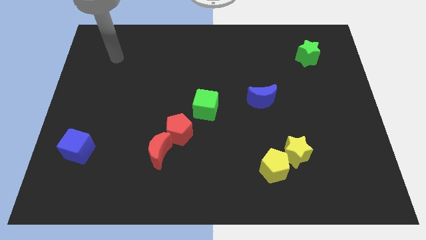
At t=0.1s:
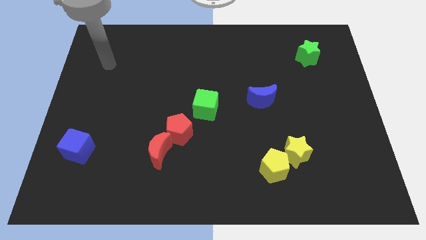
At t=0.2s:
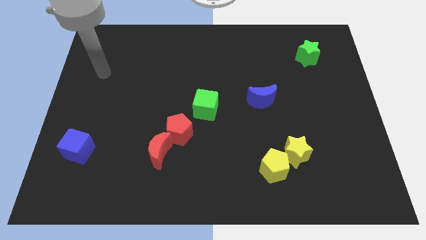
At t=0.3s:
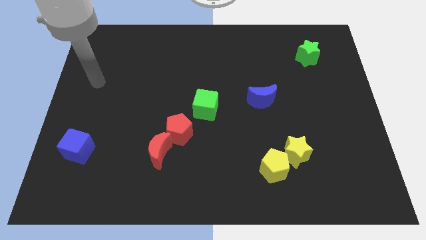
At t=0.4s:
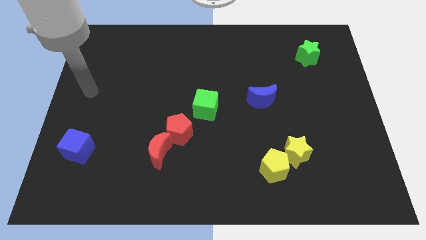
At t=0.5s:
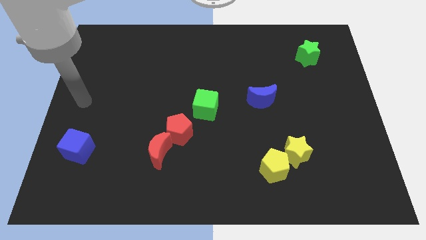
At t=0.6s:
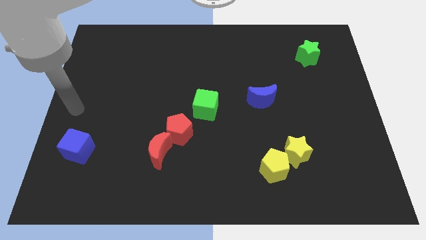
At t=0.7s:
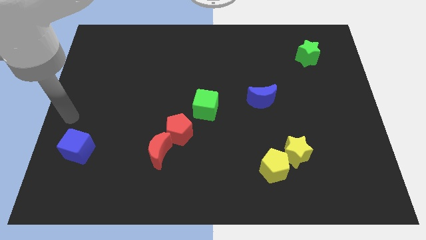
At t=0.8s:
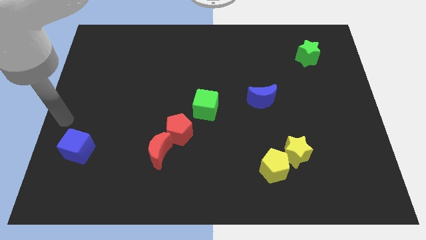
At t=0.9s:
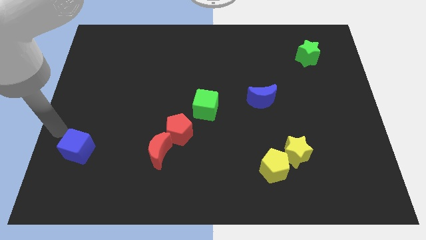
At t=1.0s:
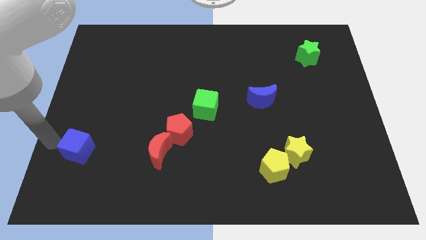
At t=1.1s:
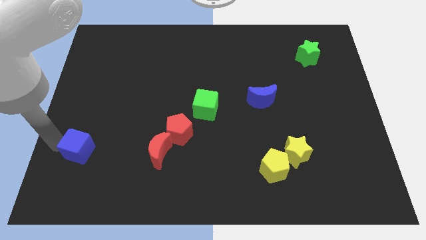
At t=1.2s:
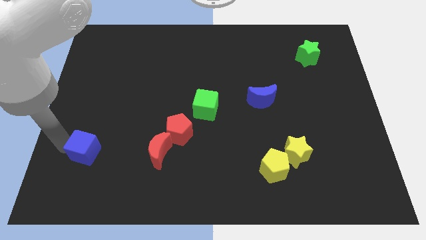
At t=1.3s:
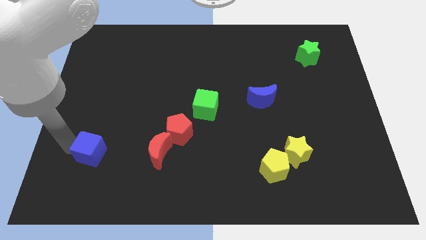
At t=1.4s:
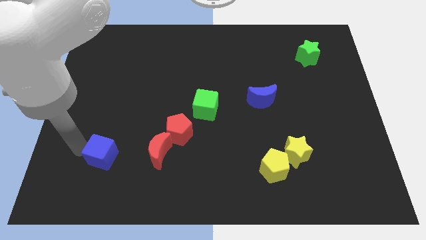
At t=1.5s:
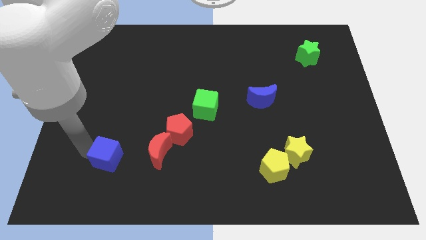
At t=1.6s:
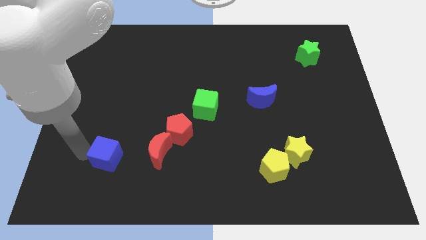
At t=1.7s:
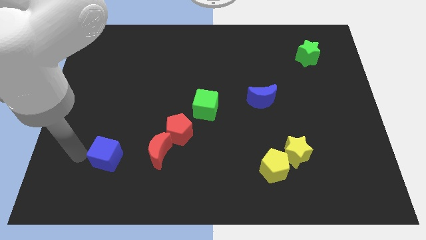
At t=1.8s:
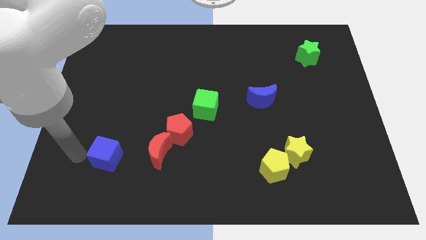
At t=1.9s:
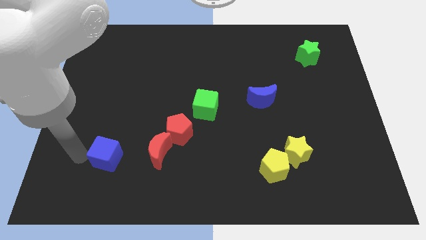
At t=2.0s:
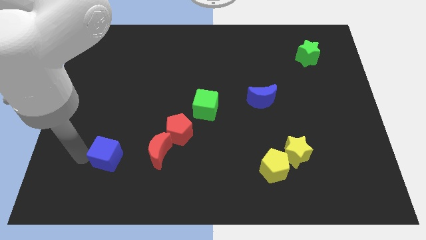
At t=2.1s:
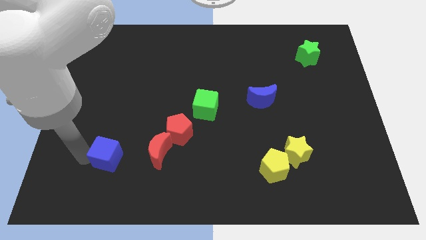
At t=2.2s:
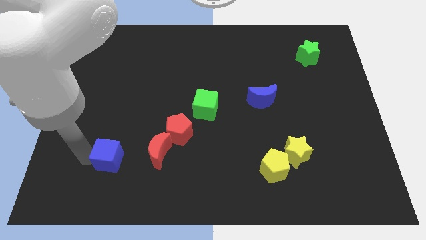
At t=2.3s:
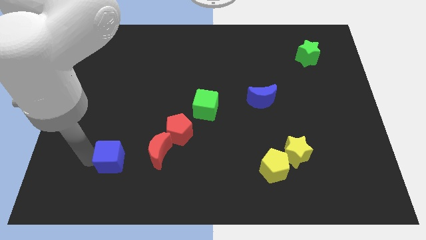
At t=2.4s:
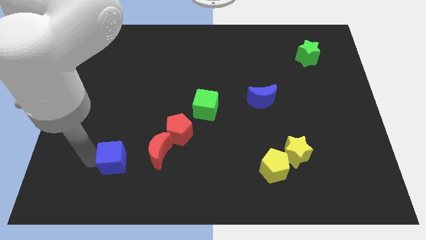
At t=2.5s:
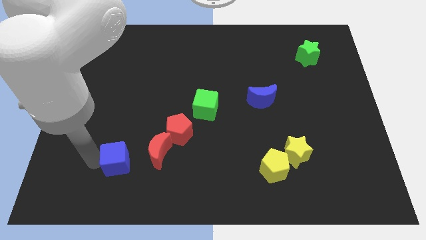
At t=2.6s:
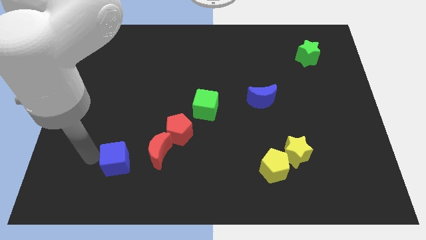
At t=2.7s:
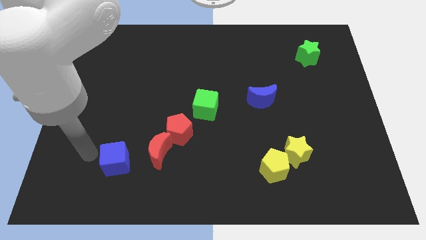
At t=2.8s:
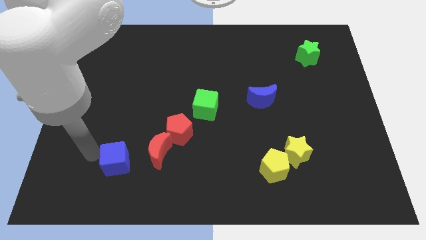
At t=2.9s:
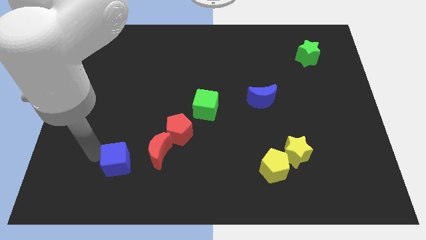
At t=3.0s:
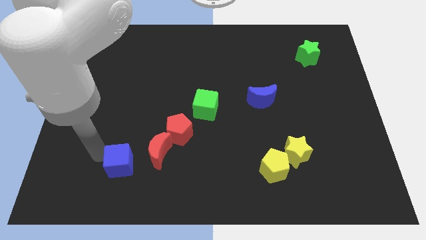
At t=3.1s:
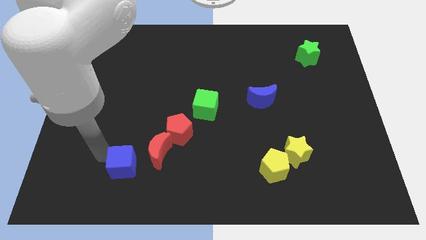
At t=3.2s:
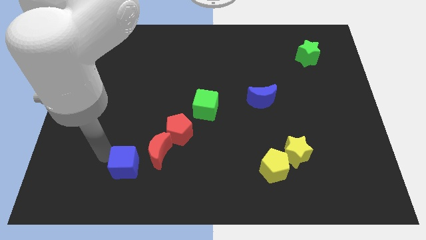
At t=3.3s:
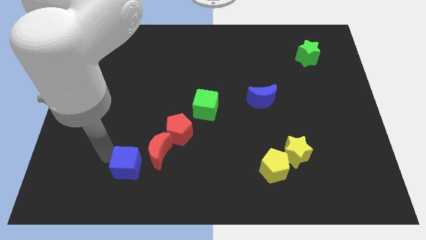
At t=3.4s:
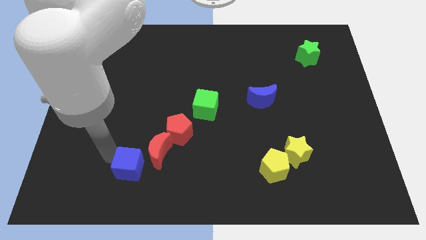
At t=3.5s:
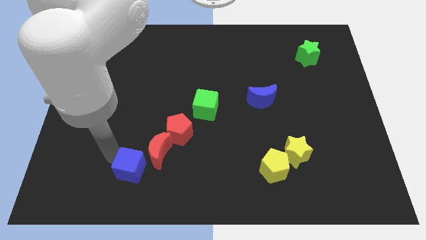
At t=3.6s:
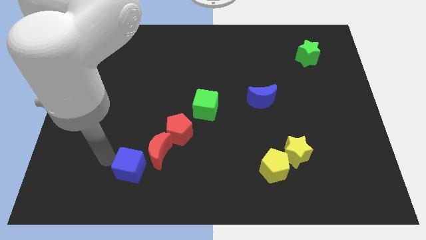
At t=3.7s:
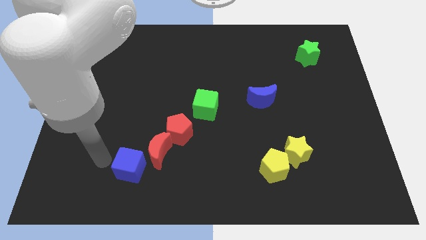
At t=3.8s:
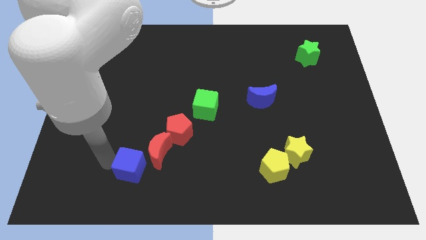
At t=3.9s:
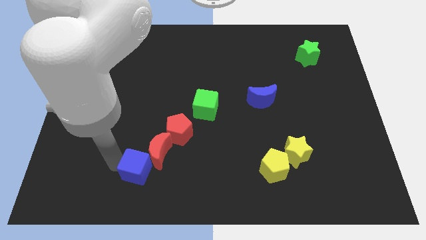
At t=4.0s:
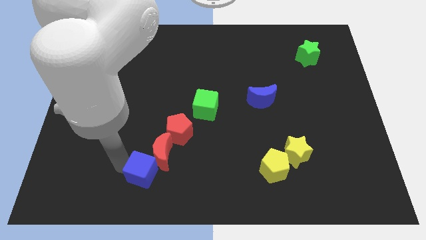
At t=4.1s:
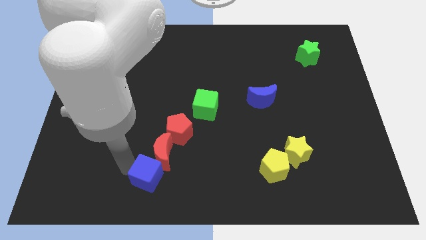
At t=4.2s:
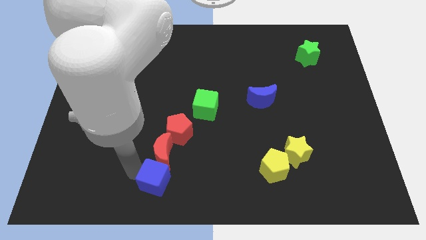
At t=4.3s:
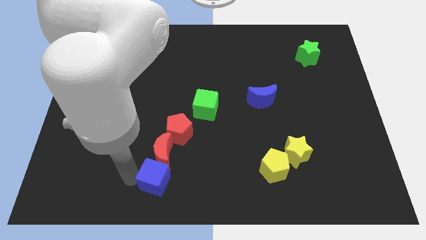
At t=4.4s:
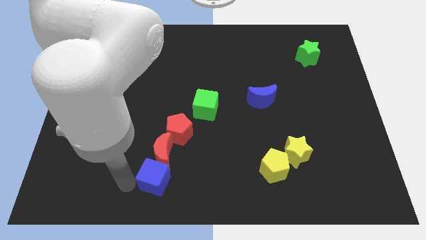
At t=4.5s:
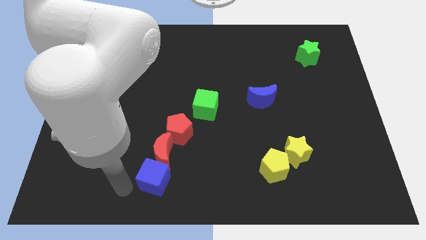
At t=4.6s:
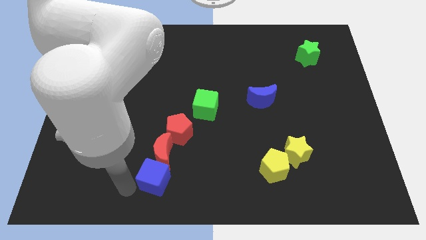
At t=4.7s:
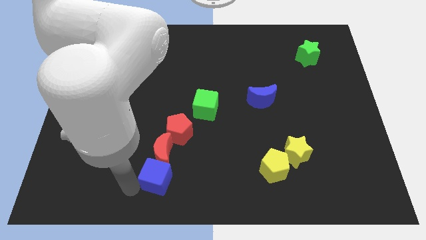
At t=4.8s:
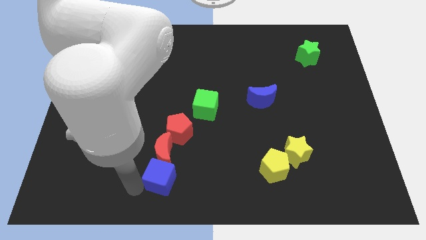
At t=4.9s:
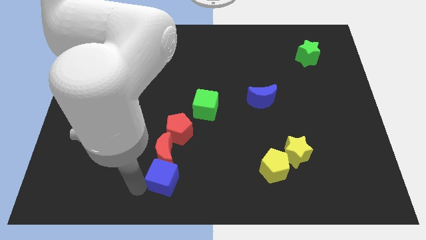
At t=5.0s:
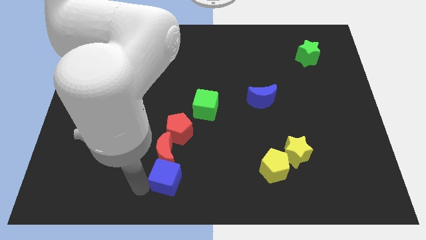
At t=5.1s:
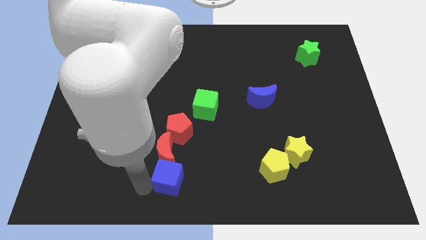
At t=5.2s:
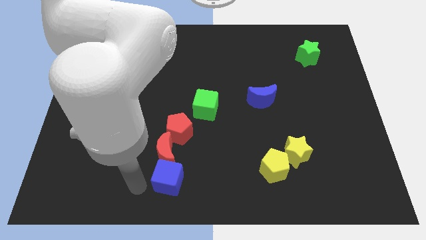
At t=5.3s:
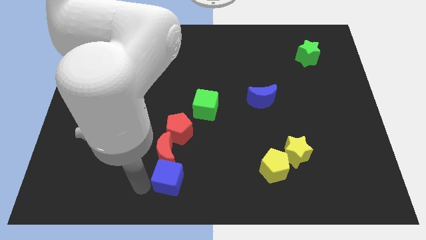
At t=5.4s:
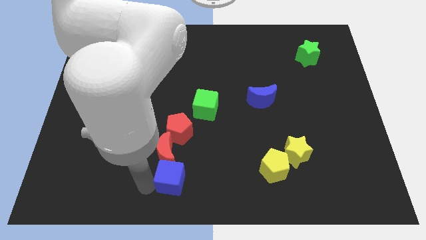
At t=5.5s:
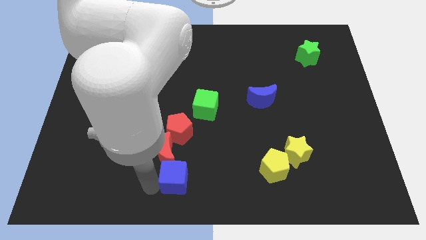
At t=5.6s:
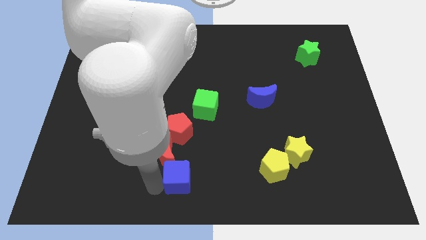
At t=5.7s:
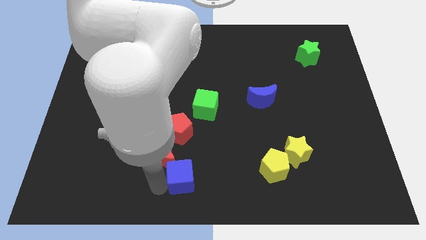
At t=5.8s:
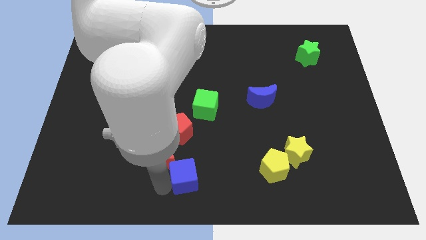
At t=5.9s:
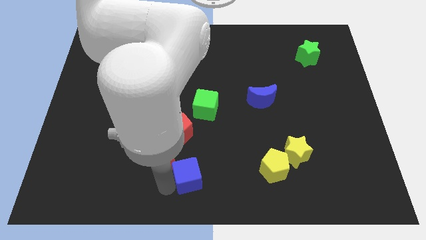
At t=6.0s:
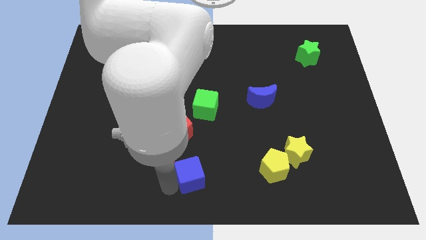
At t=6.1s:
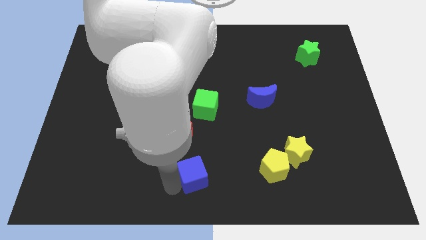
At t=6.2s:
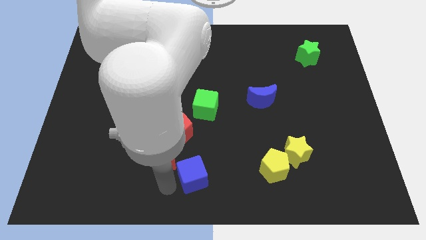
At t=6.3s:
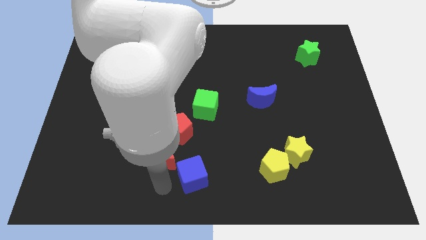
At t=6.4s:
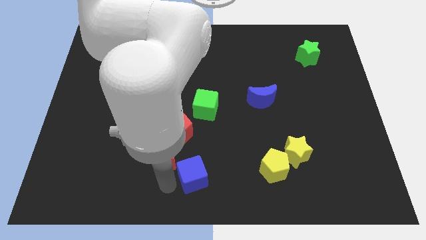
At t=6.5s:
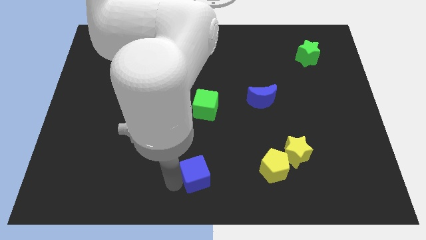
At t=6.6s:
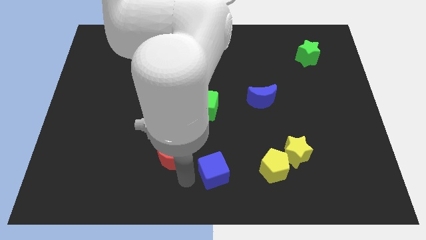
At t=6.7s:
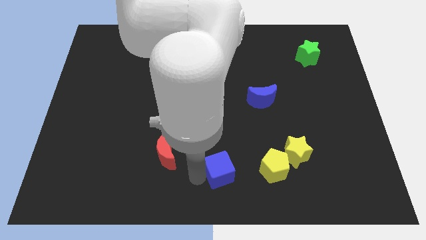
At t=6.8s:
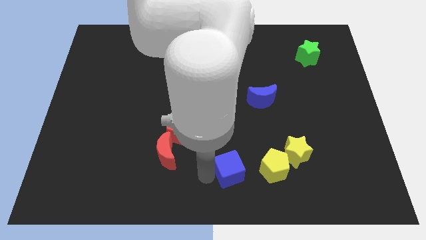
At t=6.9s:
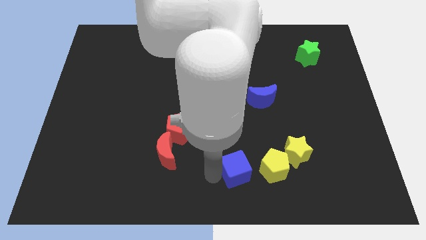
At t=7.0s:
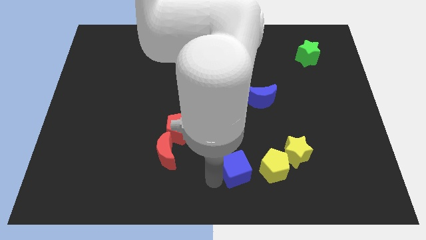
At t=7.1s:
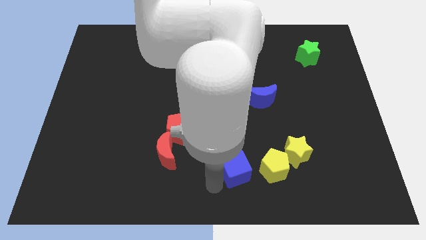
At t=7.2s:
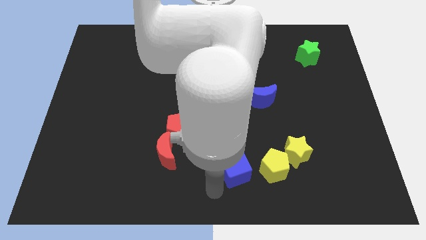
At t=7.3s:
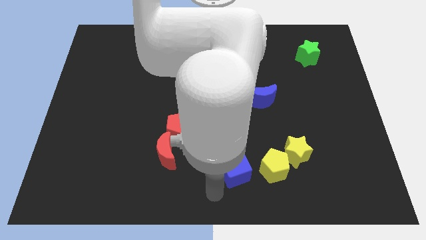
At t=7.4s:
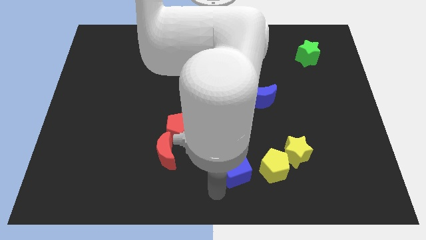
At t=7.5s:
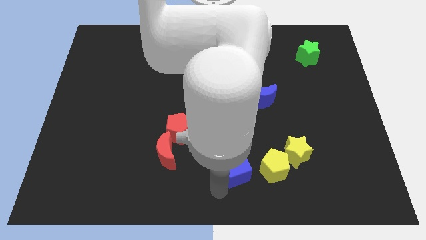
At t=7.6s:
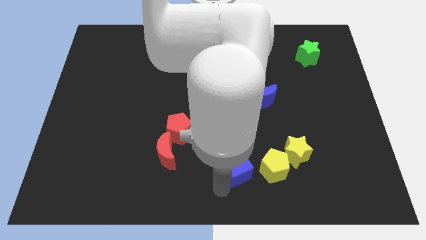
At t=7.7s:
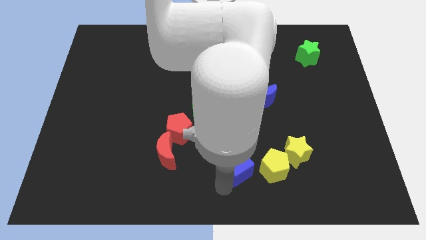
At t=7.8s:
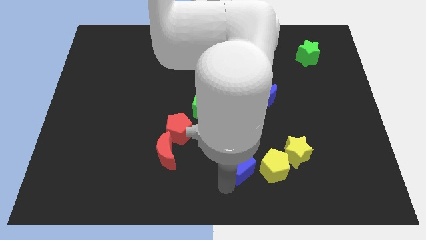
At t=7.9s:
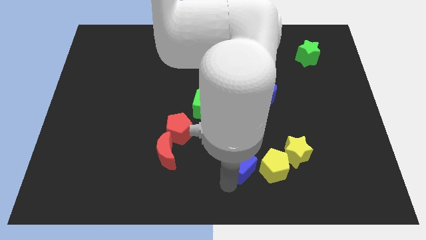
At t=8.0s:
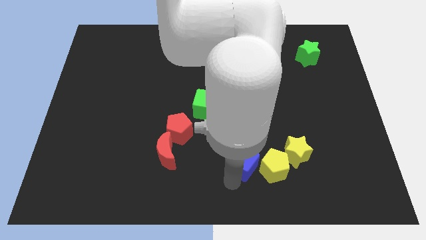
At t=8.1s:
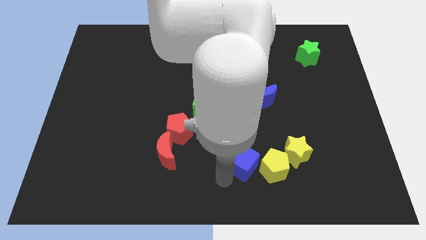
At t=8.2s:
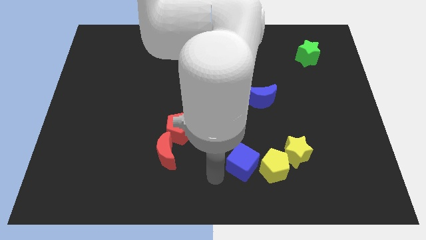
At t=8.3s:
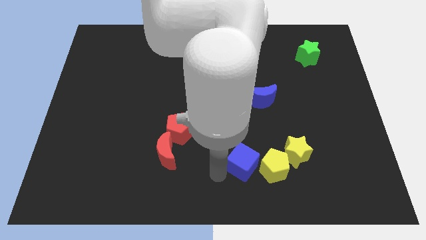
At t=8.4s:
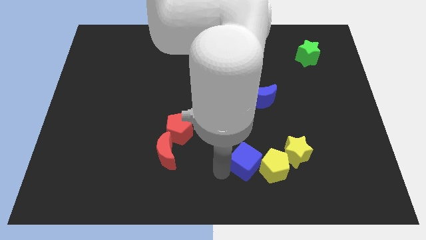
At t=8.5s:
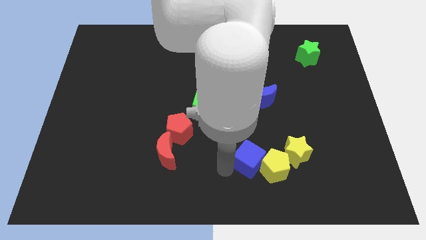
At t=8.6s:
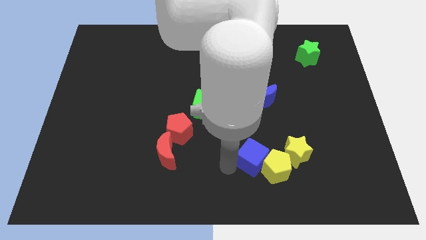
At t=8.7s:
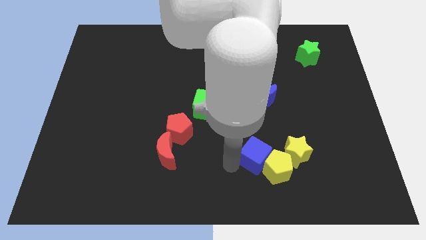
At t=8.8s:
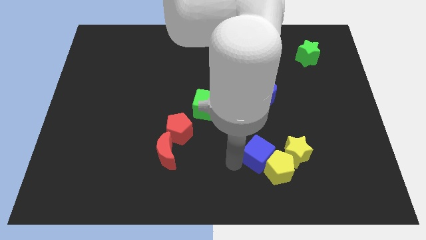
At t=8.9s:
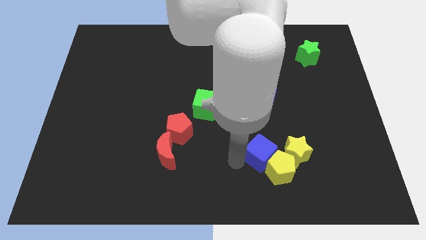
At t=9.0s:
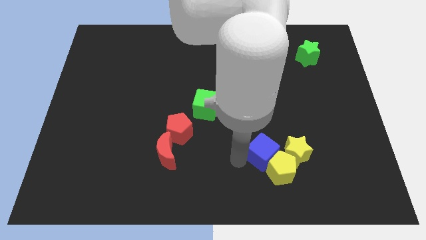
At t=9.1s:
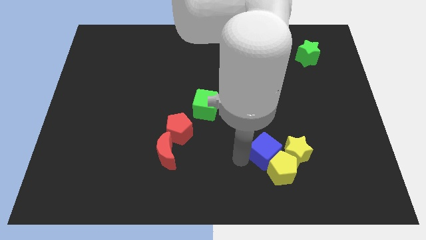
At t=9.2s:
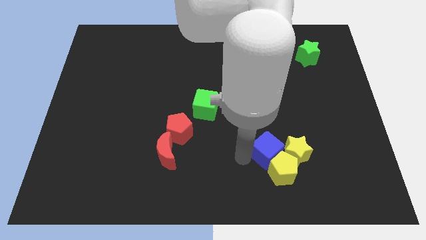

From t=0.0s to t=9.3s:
slide the blue cube next to the yellow star
